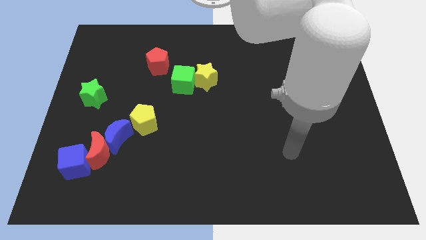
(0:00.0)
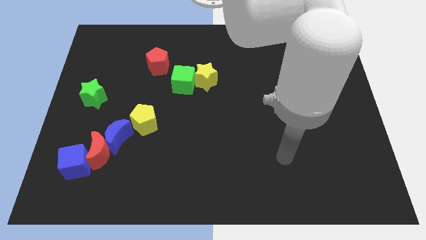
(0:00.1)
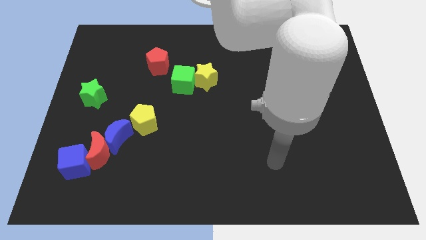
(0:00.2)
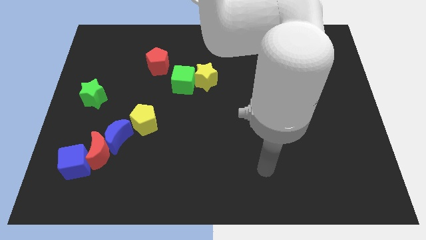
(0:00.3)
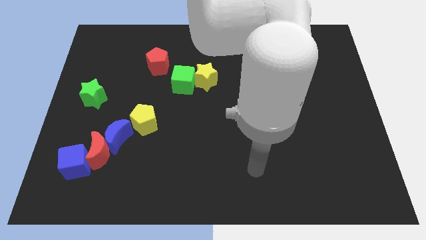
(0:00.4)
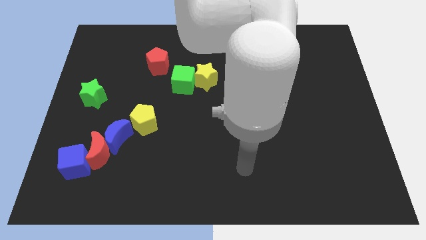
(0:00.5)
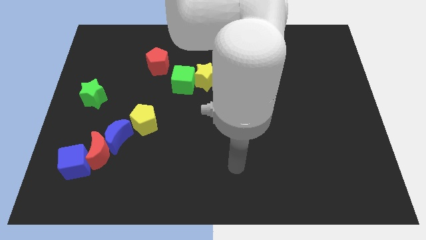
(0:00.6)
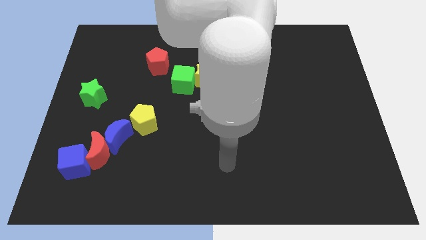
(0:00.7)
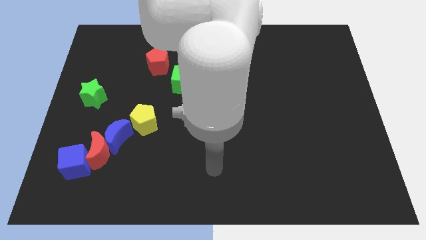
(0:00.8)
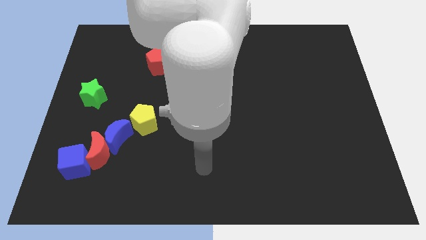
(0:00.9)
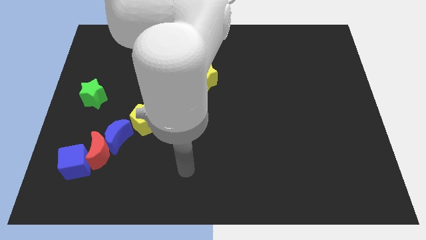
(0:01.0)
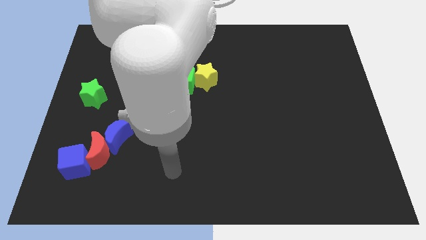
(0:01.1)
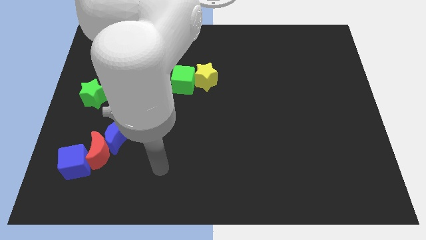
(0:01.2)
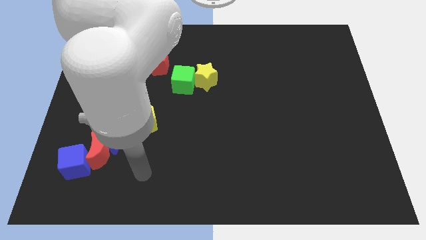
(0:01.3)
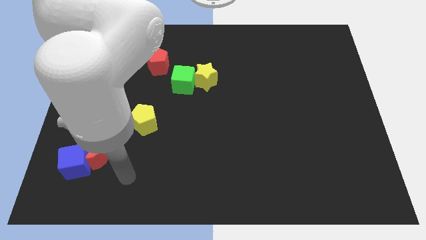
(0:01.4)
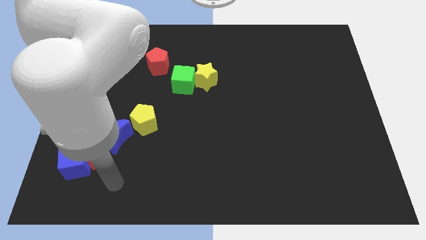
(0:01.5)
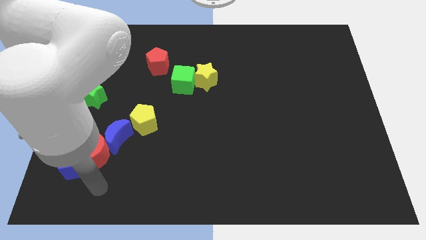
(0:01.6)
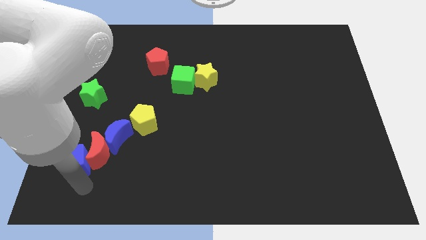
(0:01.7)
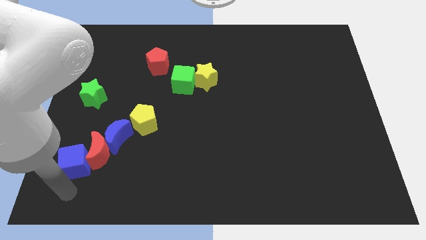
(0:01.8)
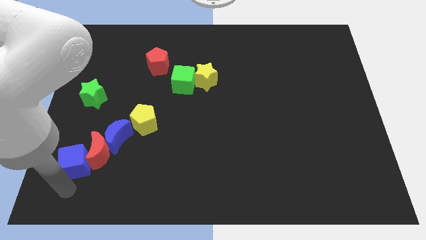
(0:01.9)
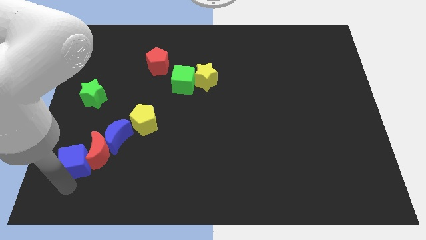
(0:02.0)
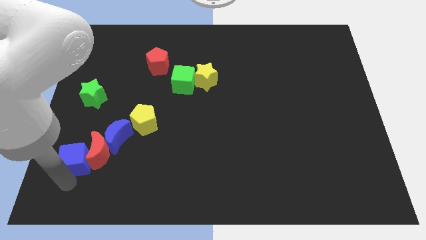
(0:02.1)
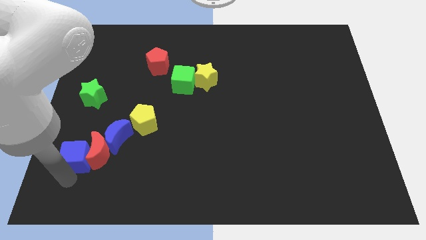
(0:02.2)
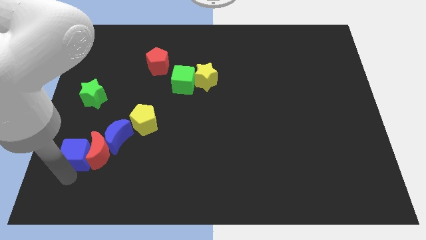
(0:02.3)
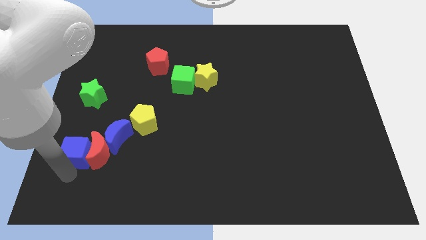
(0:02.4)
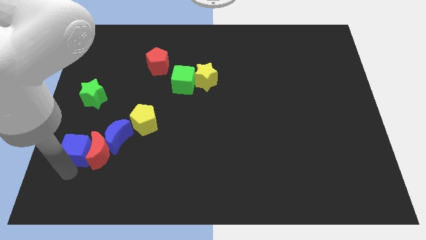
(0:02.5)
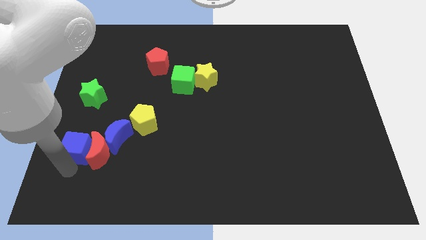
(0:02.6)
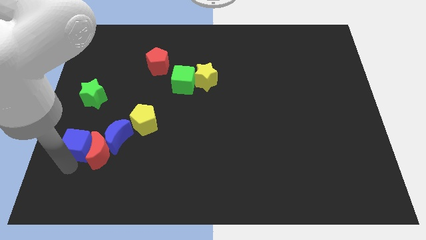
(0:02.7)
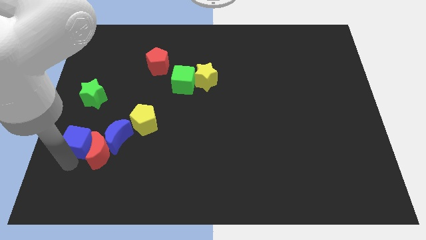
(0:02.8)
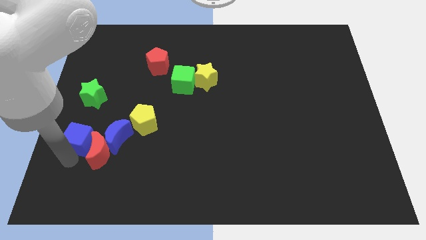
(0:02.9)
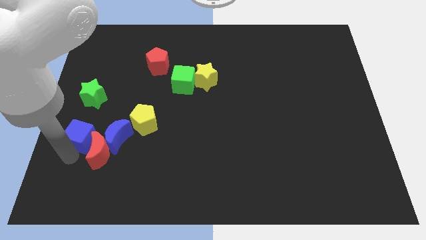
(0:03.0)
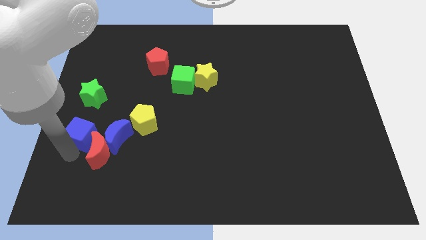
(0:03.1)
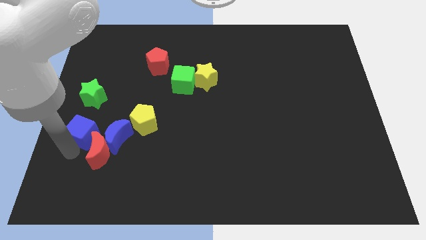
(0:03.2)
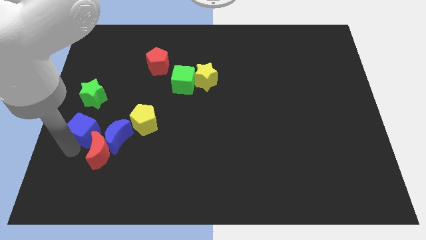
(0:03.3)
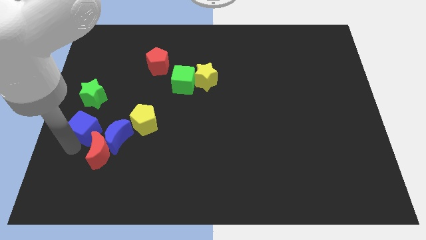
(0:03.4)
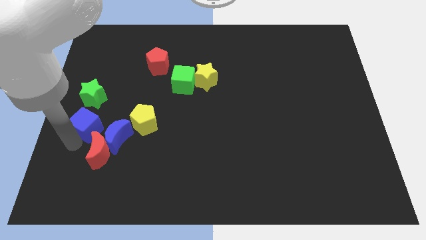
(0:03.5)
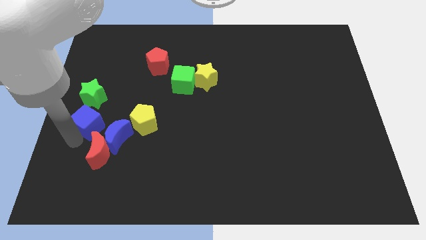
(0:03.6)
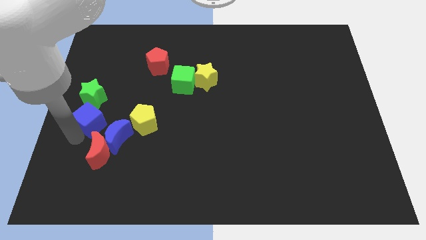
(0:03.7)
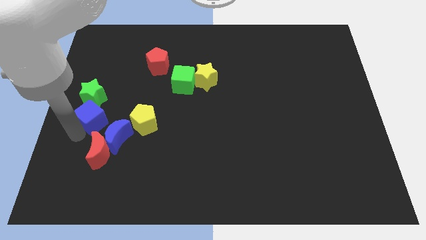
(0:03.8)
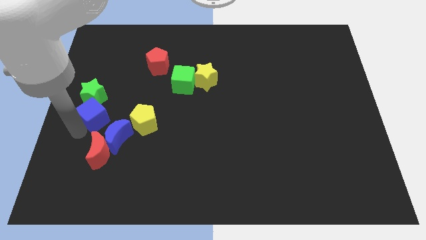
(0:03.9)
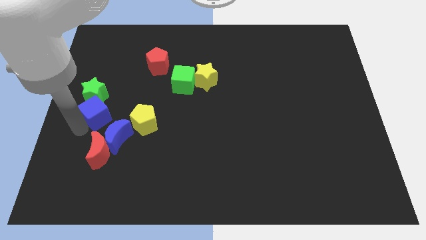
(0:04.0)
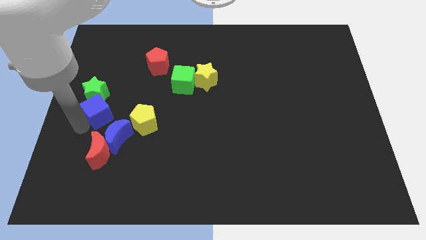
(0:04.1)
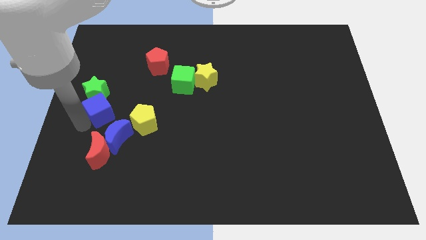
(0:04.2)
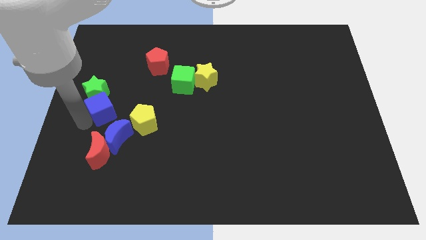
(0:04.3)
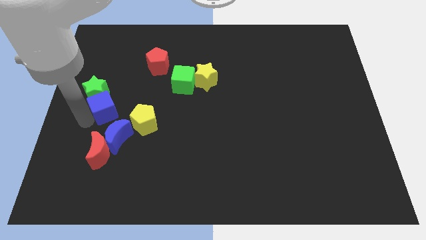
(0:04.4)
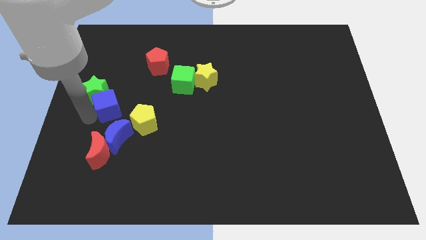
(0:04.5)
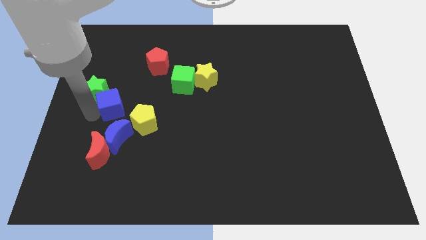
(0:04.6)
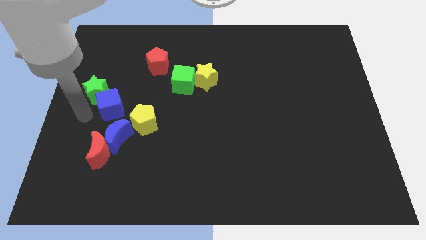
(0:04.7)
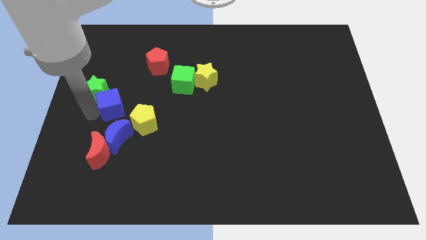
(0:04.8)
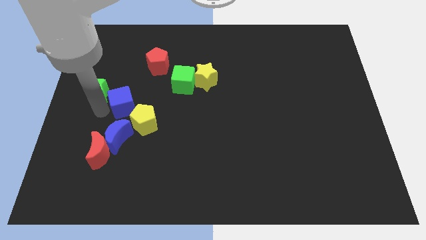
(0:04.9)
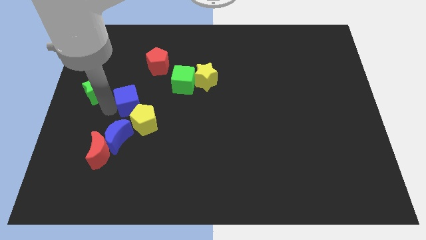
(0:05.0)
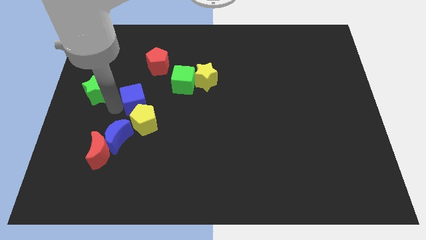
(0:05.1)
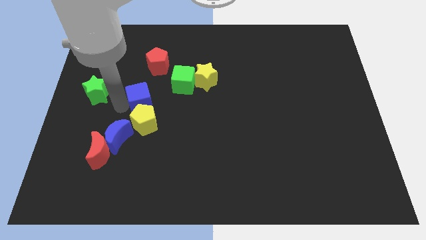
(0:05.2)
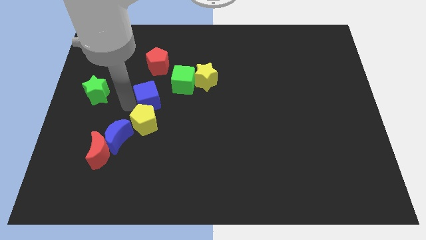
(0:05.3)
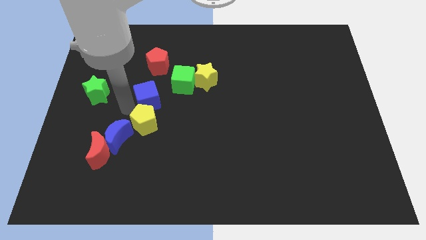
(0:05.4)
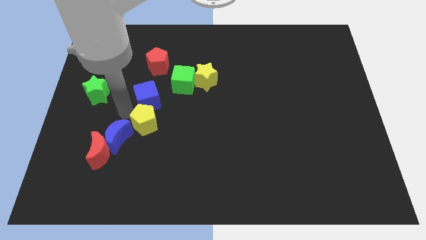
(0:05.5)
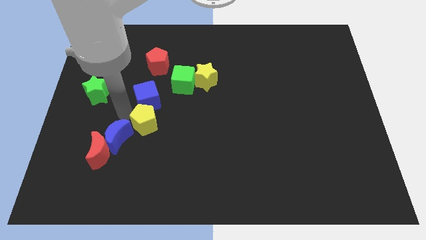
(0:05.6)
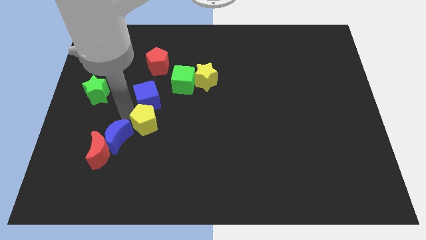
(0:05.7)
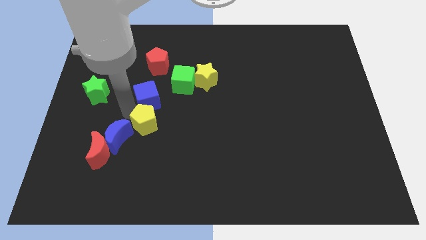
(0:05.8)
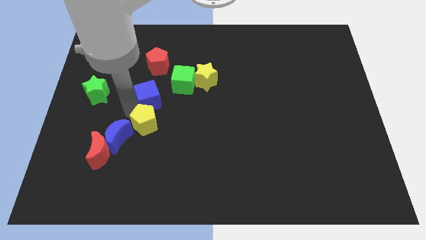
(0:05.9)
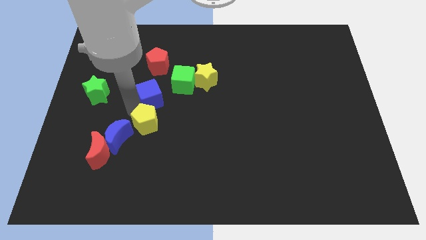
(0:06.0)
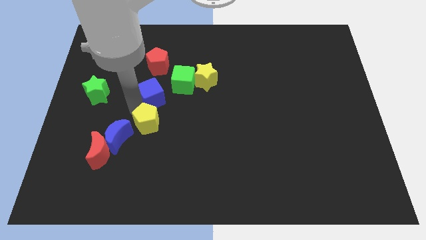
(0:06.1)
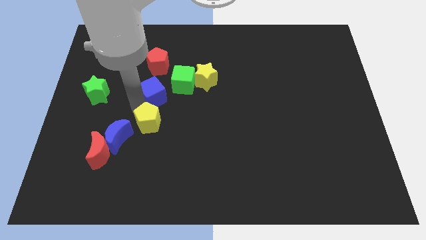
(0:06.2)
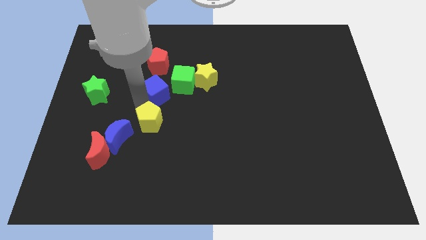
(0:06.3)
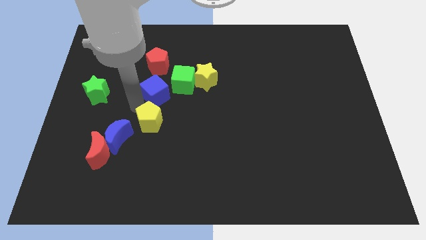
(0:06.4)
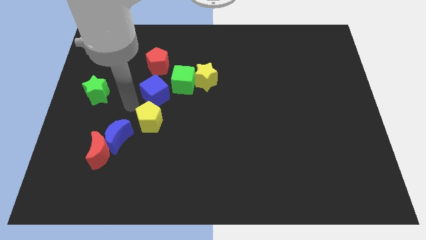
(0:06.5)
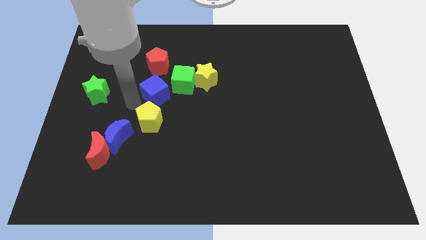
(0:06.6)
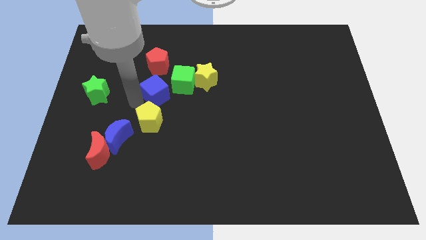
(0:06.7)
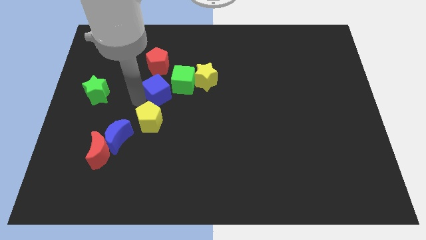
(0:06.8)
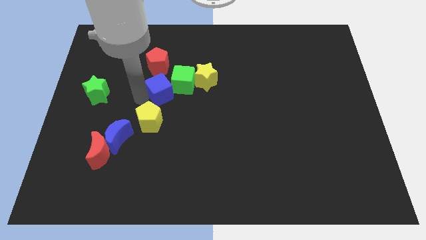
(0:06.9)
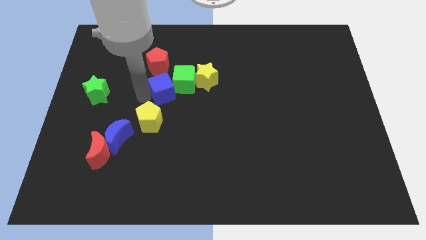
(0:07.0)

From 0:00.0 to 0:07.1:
move the blue cube next to the green cube

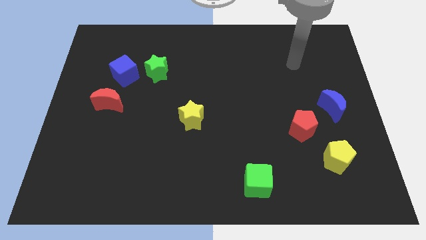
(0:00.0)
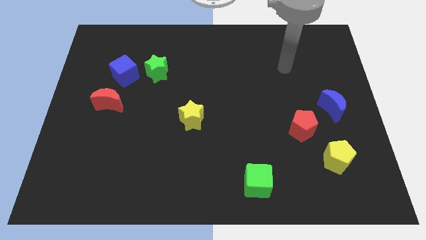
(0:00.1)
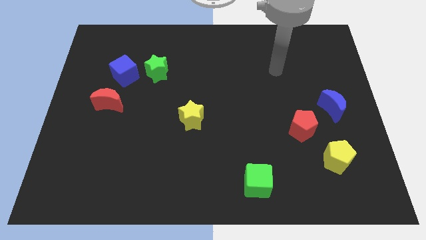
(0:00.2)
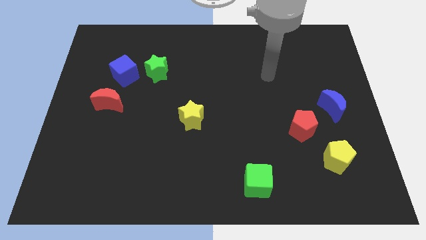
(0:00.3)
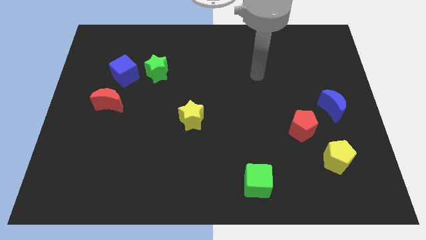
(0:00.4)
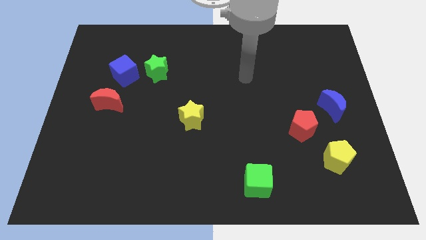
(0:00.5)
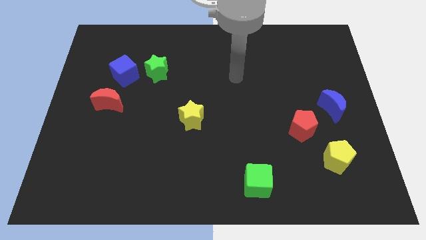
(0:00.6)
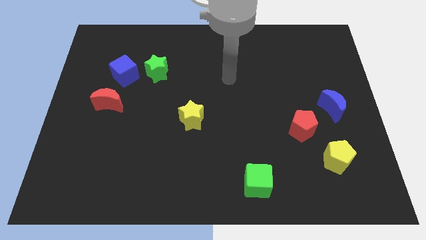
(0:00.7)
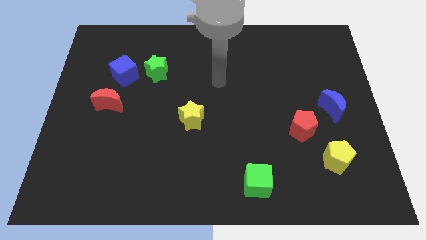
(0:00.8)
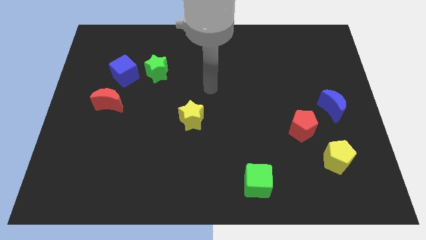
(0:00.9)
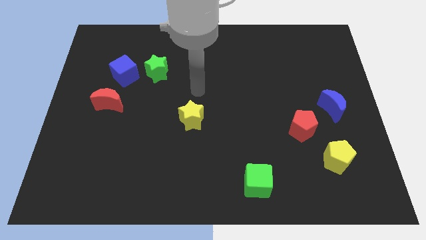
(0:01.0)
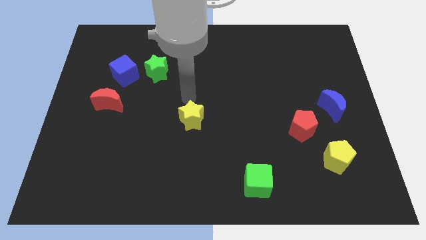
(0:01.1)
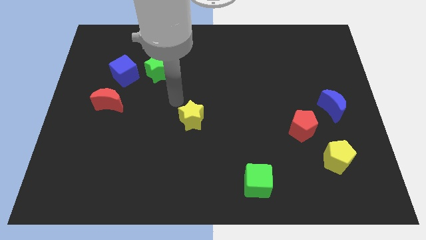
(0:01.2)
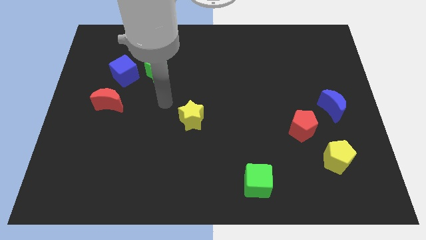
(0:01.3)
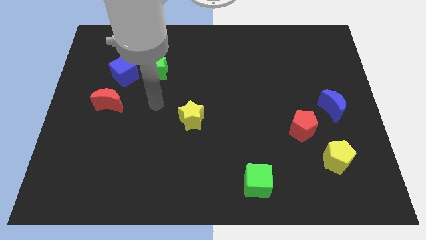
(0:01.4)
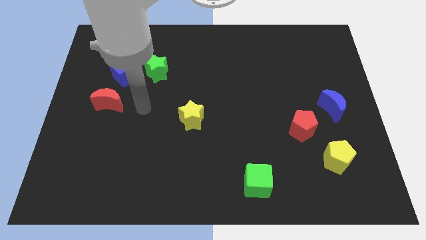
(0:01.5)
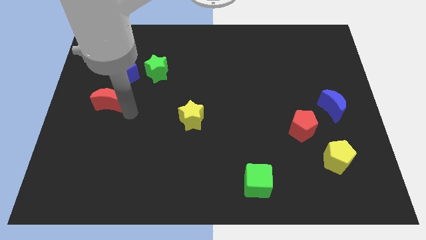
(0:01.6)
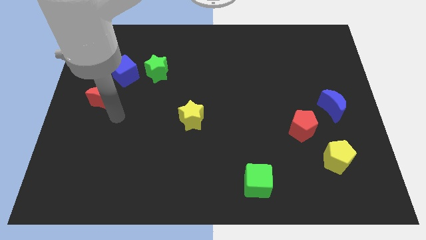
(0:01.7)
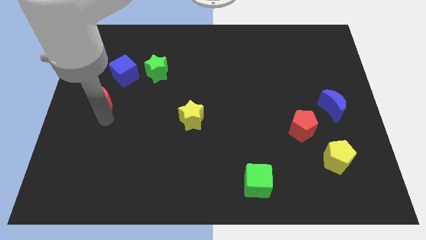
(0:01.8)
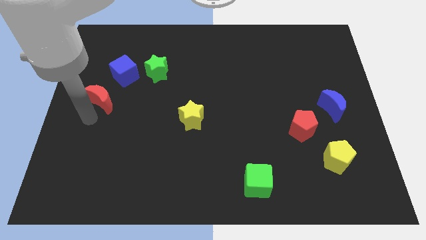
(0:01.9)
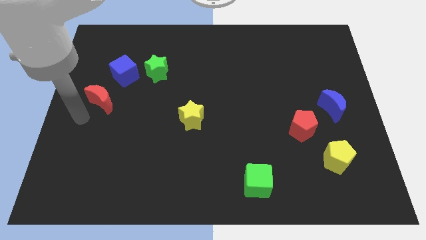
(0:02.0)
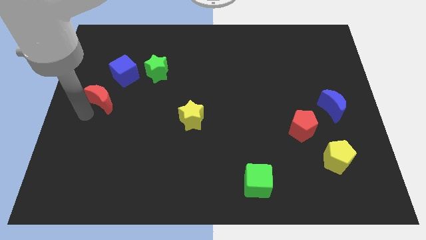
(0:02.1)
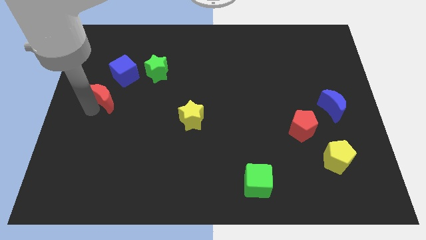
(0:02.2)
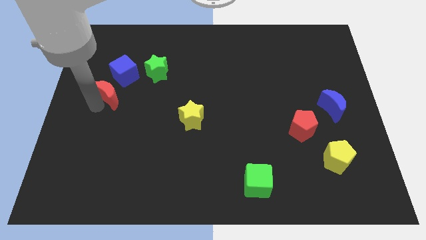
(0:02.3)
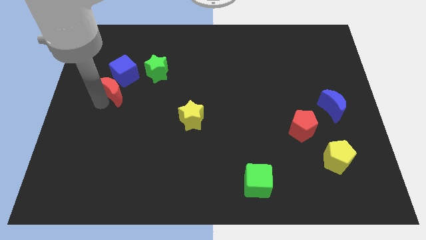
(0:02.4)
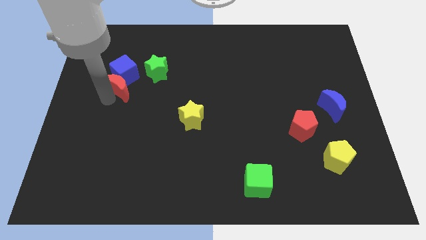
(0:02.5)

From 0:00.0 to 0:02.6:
slide the red moon to the blue cube
